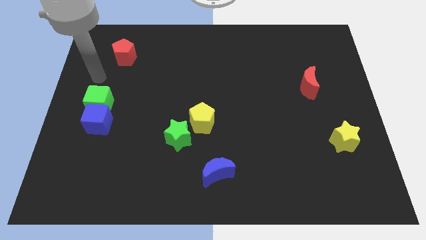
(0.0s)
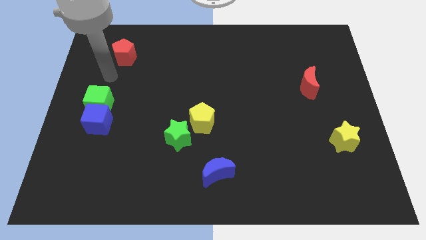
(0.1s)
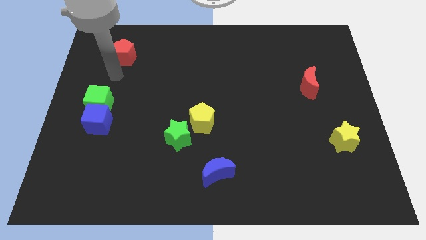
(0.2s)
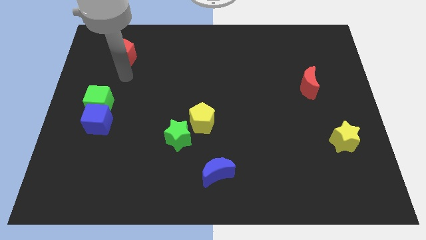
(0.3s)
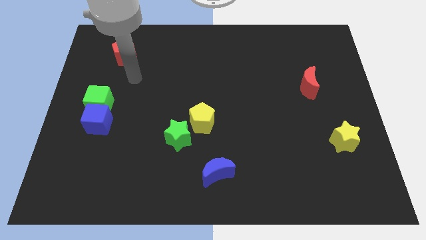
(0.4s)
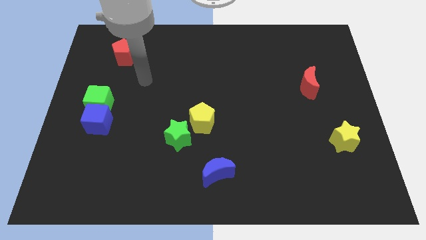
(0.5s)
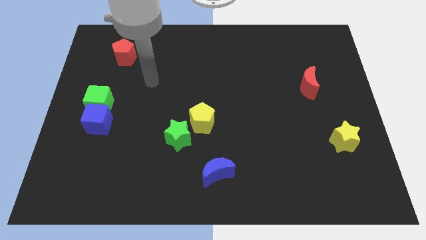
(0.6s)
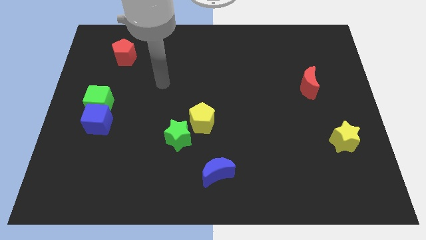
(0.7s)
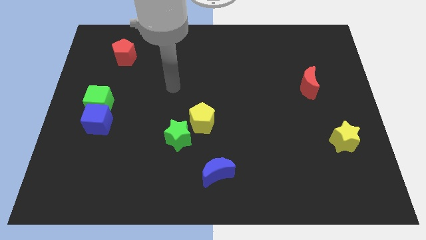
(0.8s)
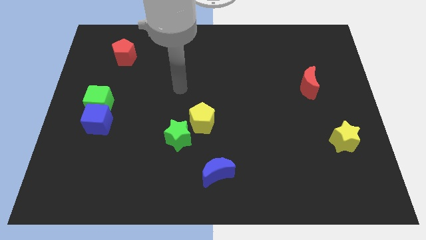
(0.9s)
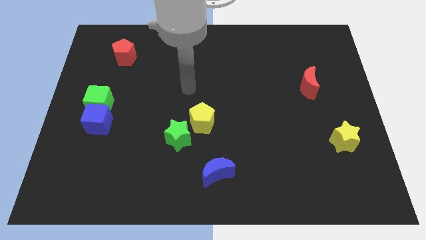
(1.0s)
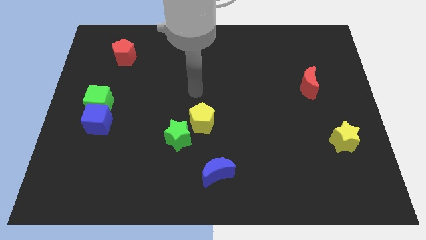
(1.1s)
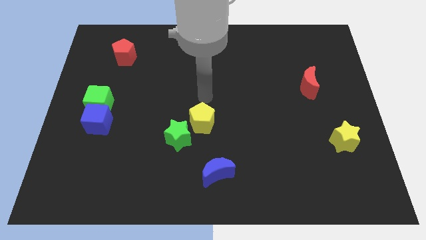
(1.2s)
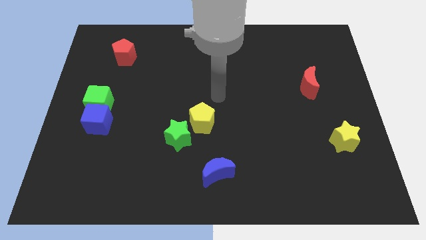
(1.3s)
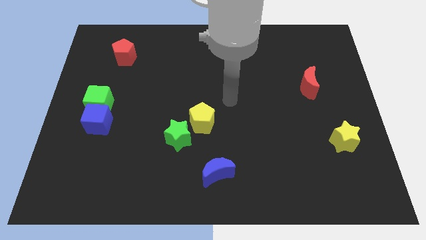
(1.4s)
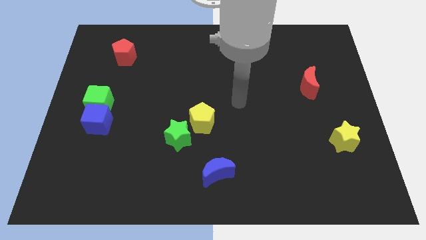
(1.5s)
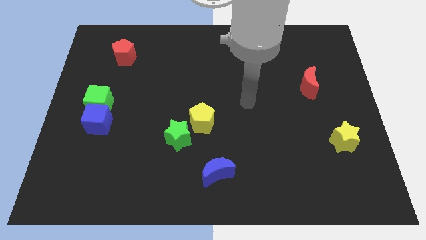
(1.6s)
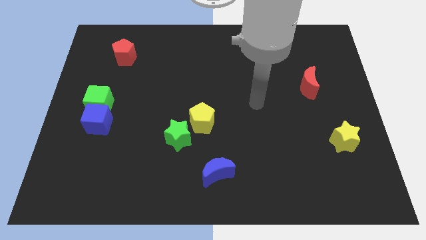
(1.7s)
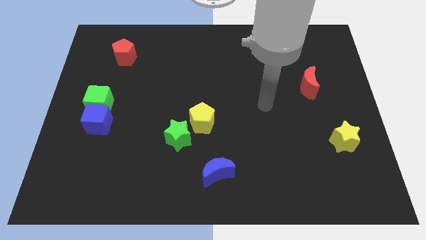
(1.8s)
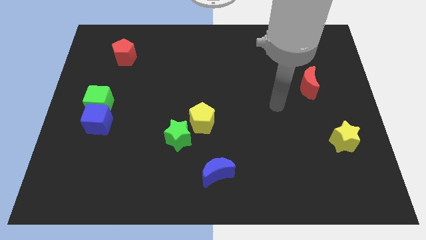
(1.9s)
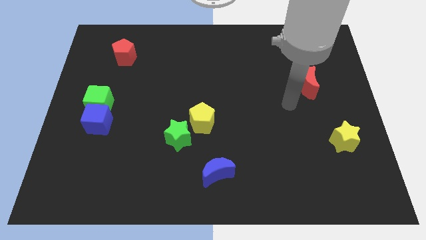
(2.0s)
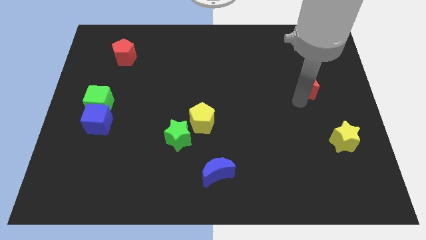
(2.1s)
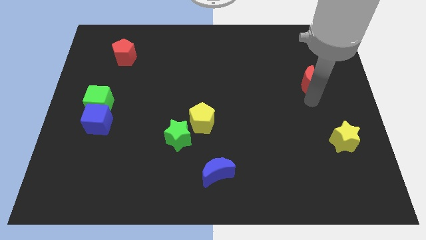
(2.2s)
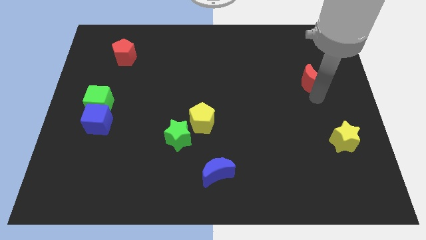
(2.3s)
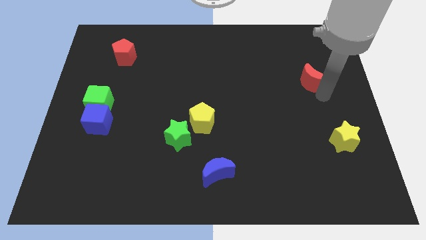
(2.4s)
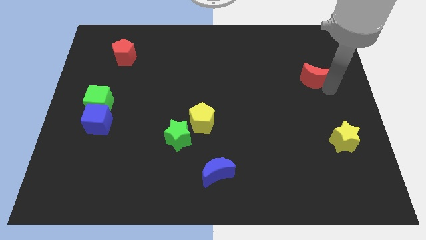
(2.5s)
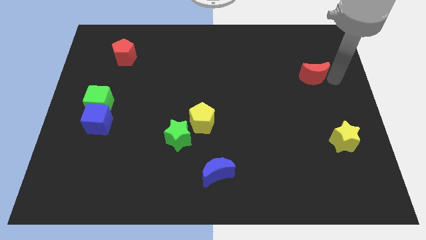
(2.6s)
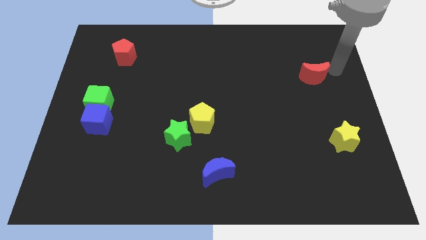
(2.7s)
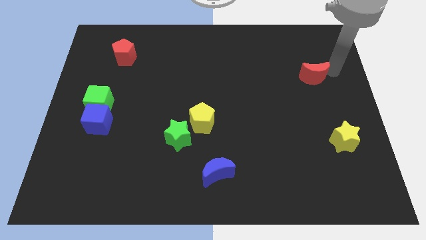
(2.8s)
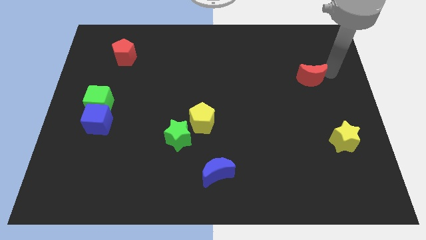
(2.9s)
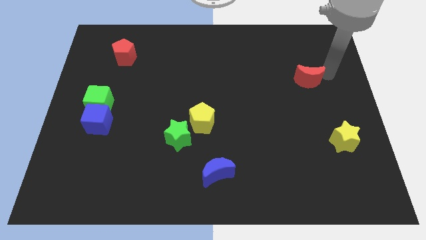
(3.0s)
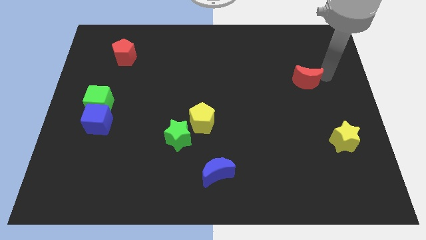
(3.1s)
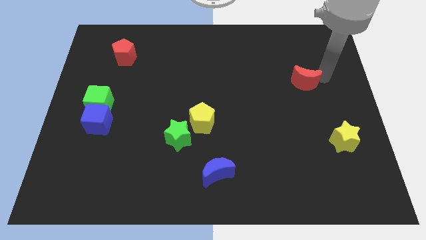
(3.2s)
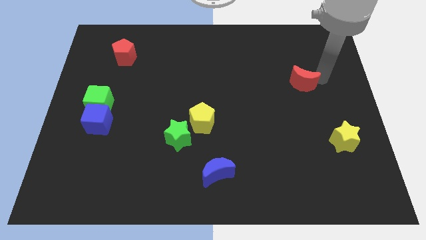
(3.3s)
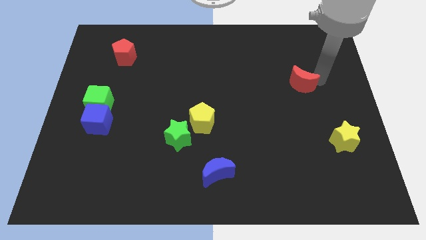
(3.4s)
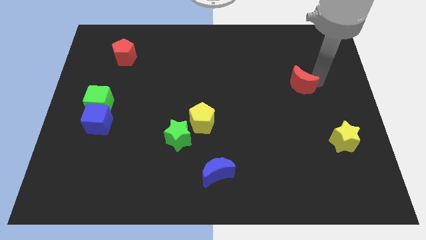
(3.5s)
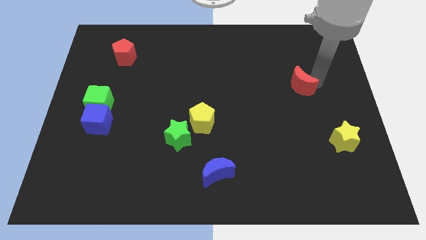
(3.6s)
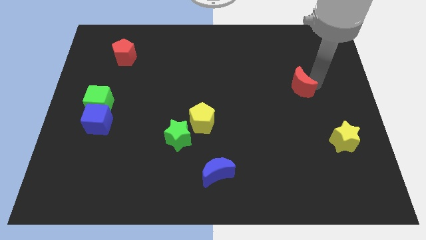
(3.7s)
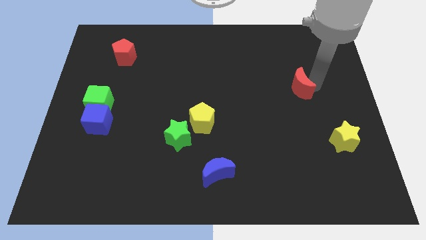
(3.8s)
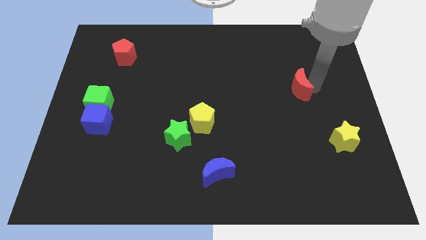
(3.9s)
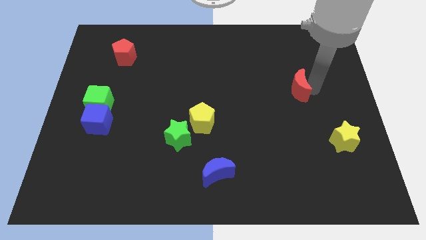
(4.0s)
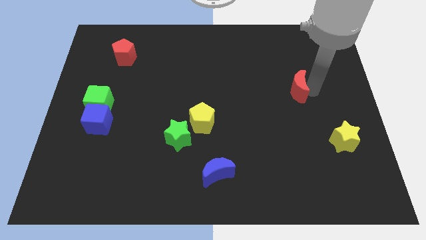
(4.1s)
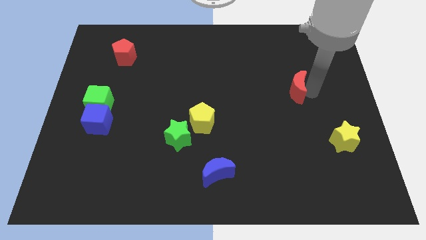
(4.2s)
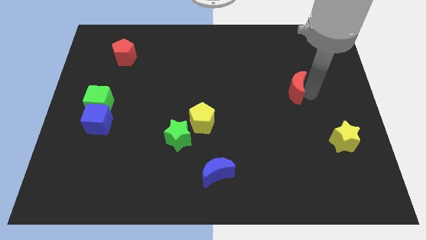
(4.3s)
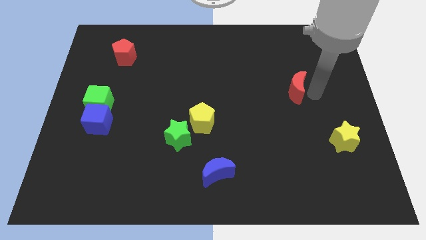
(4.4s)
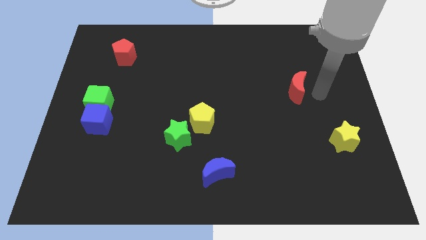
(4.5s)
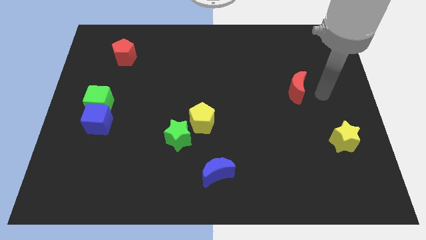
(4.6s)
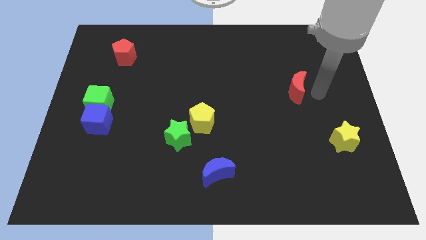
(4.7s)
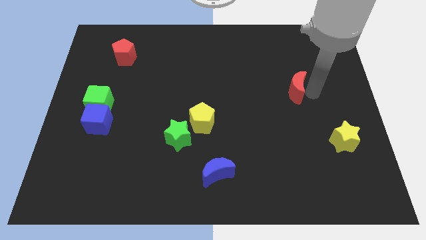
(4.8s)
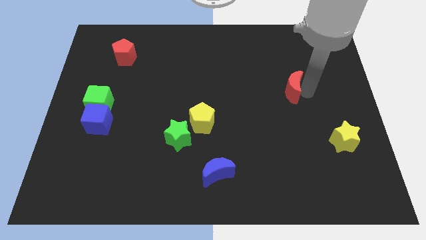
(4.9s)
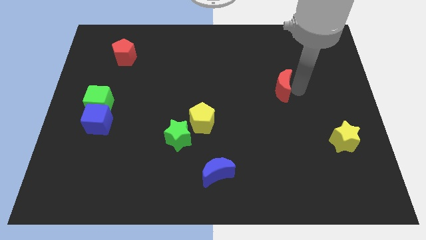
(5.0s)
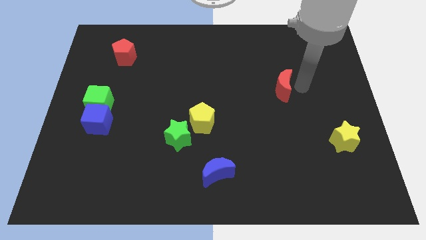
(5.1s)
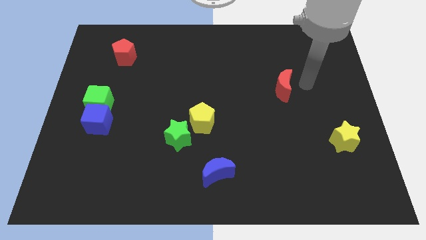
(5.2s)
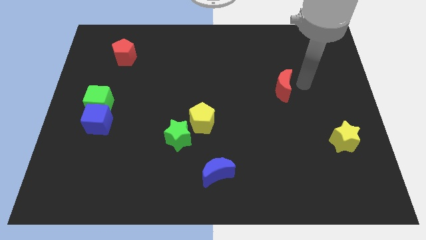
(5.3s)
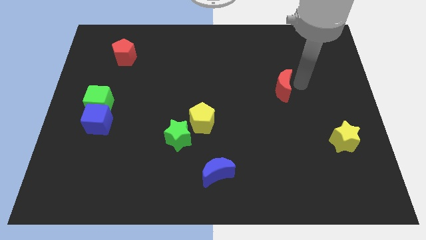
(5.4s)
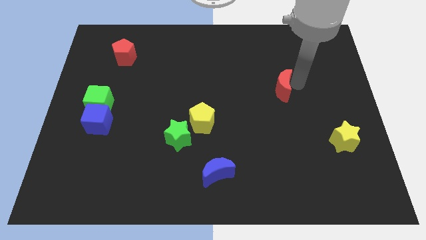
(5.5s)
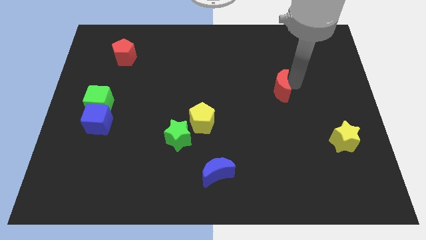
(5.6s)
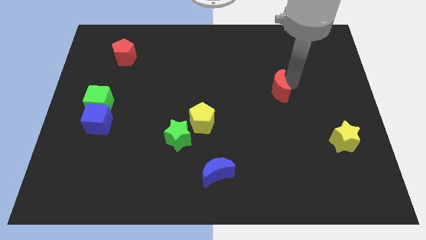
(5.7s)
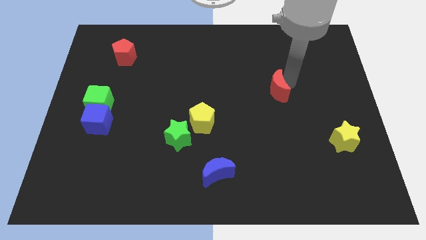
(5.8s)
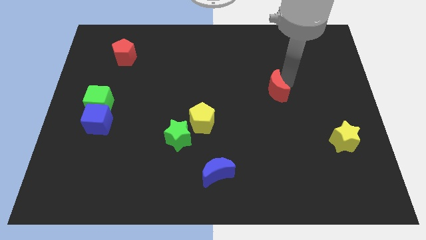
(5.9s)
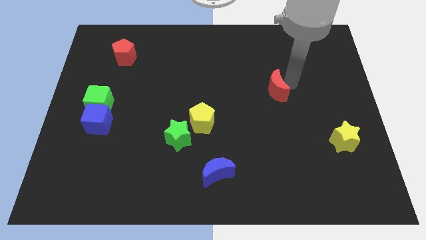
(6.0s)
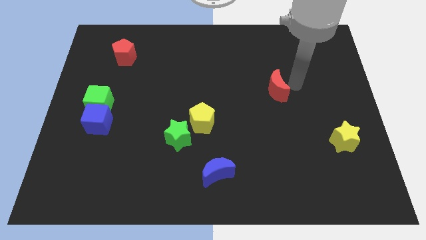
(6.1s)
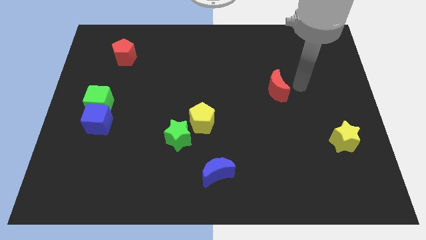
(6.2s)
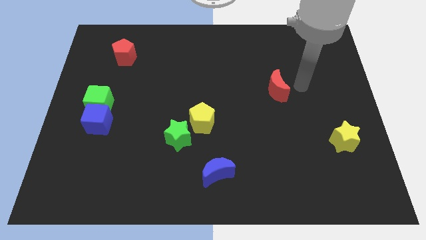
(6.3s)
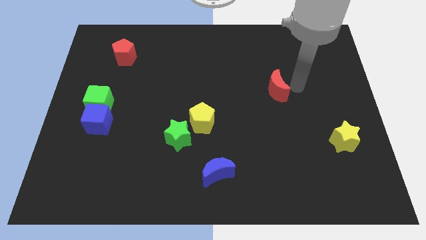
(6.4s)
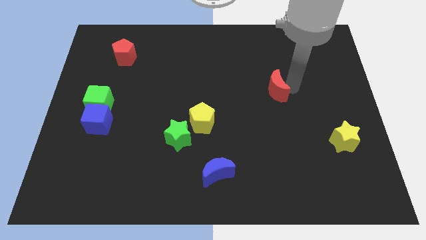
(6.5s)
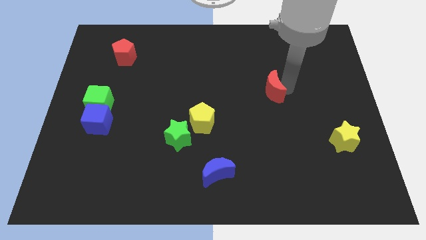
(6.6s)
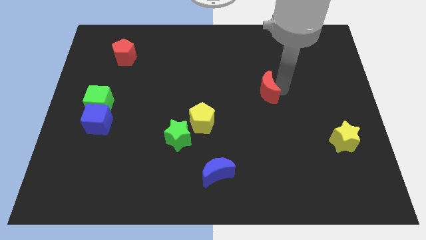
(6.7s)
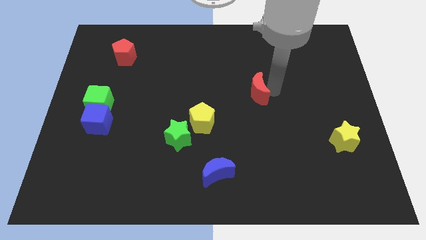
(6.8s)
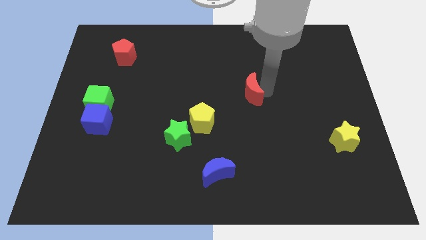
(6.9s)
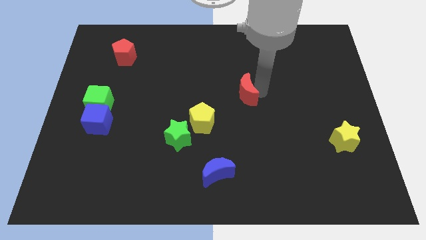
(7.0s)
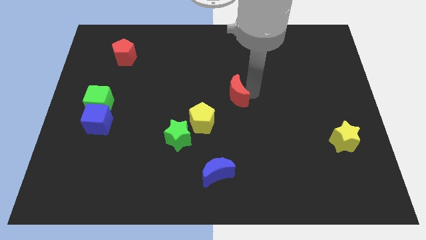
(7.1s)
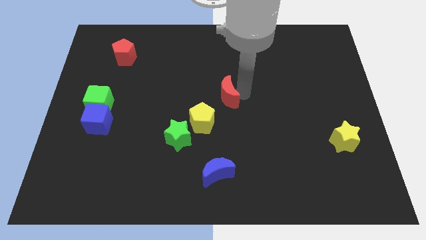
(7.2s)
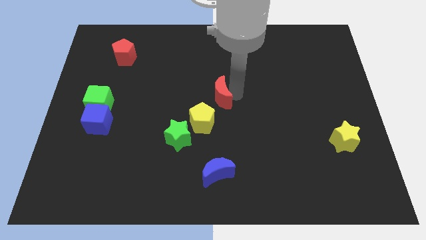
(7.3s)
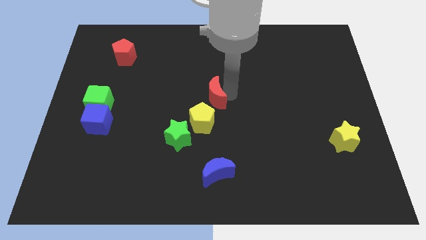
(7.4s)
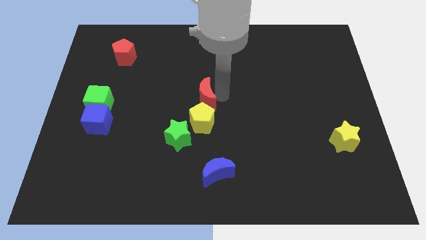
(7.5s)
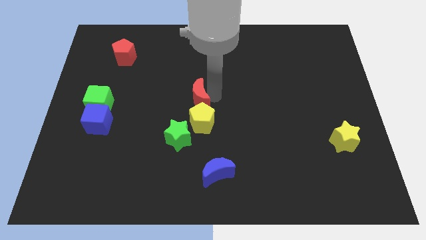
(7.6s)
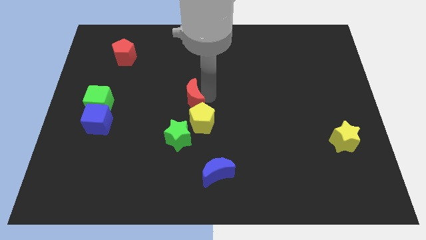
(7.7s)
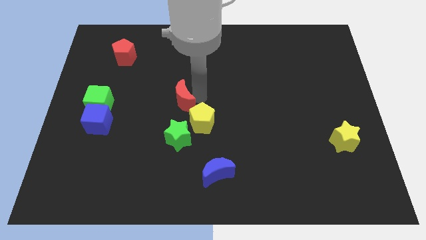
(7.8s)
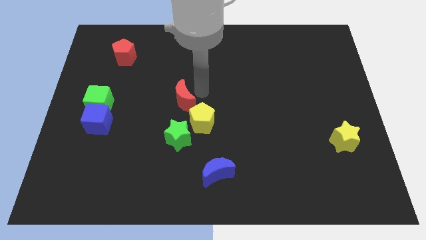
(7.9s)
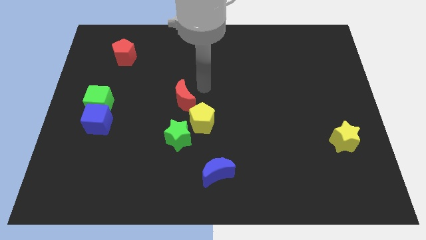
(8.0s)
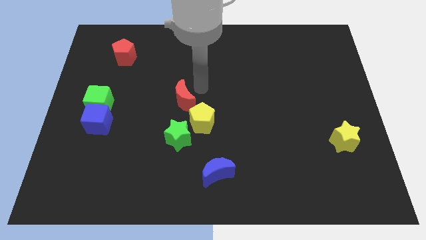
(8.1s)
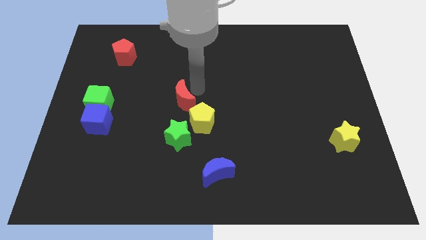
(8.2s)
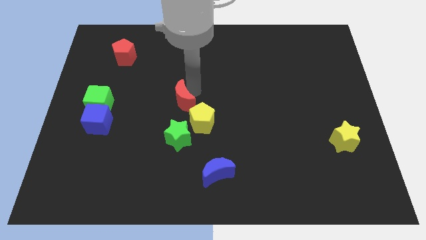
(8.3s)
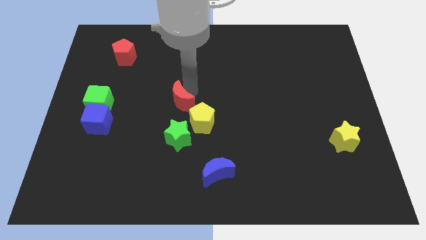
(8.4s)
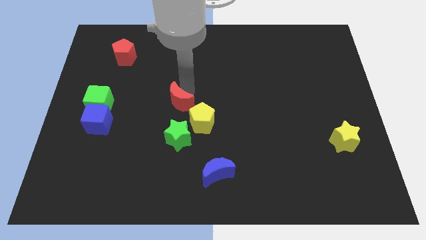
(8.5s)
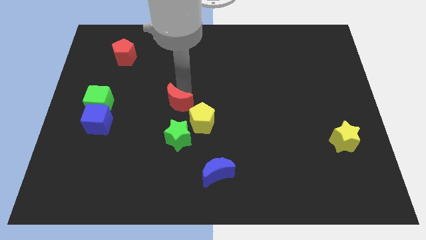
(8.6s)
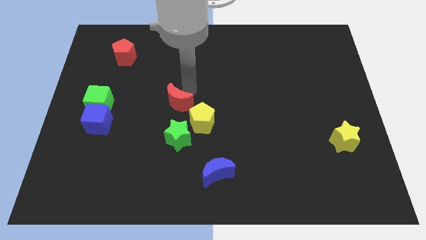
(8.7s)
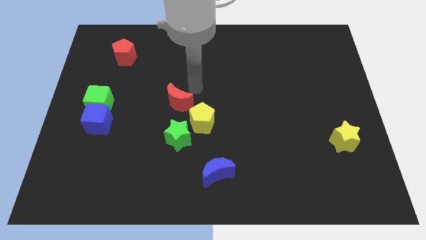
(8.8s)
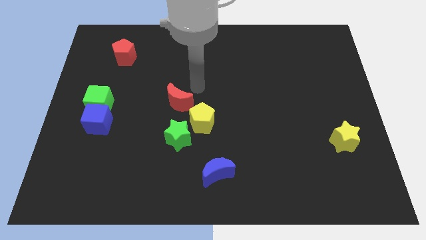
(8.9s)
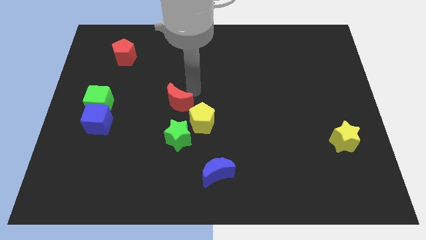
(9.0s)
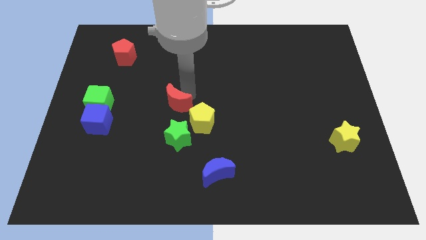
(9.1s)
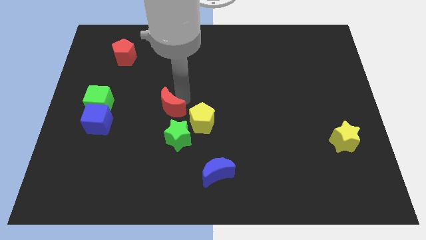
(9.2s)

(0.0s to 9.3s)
push the red moon to the top left side of the green star
